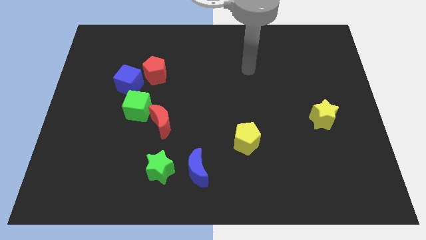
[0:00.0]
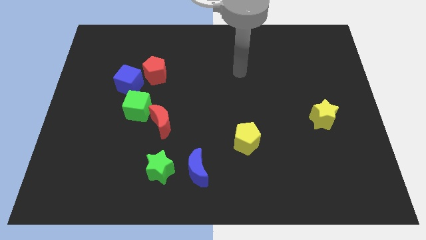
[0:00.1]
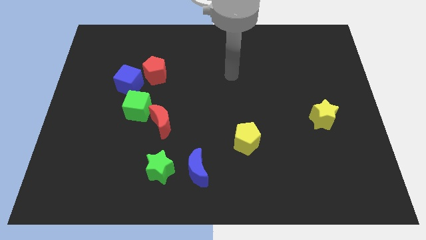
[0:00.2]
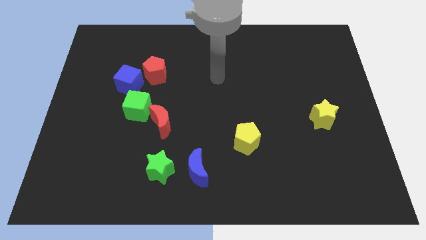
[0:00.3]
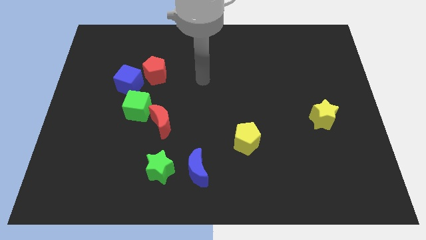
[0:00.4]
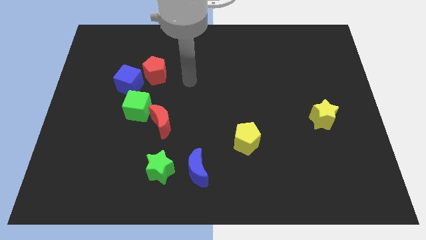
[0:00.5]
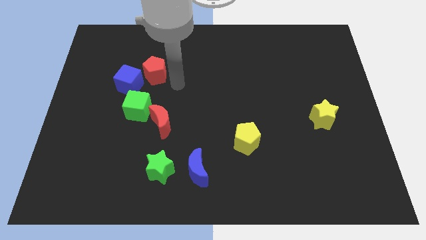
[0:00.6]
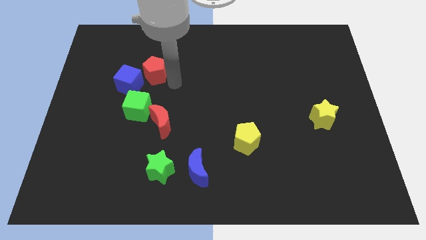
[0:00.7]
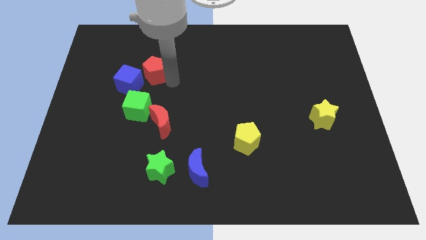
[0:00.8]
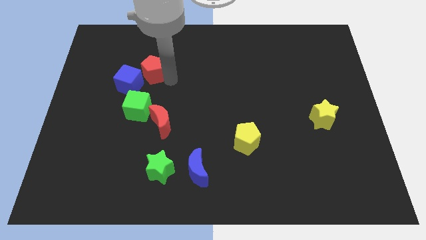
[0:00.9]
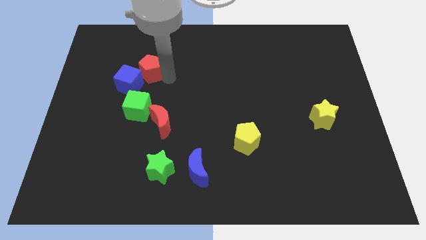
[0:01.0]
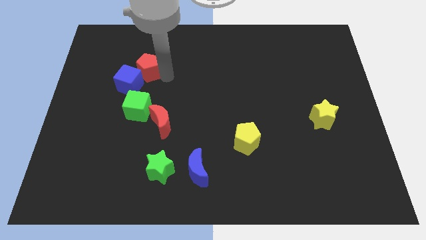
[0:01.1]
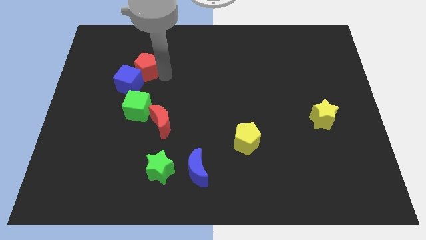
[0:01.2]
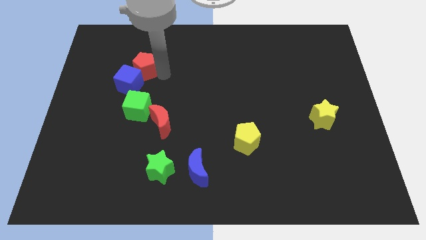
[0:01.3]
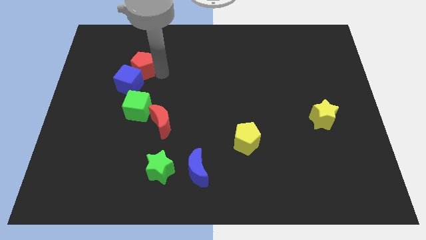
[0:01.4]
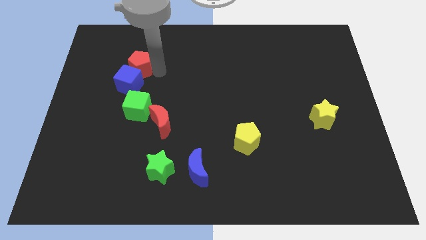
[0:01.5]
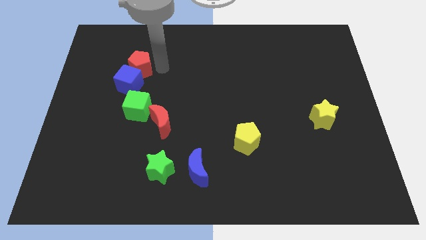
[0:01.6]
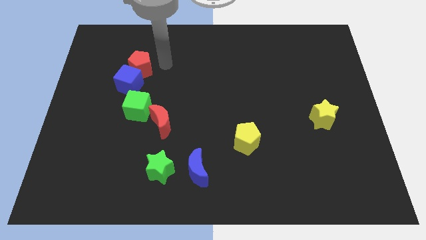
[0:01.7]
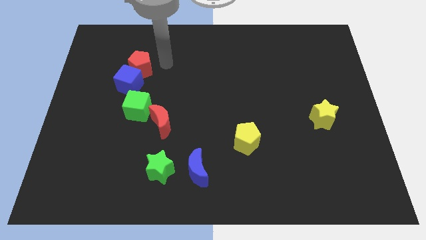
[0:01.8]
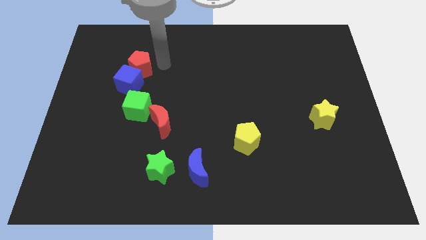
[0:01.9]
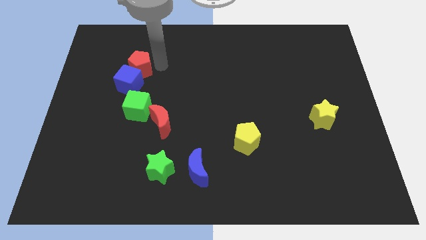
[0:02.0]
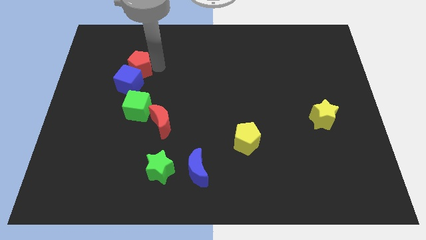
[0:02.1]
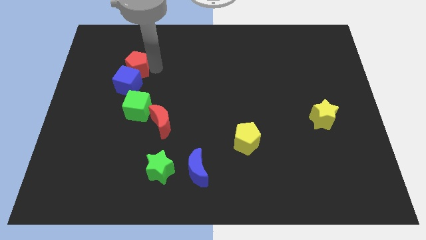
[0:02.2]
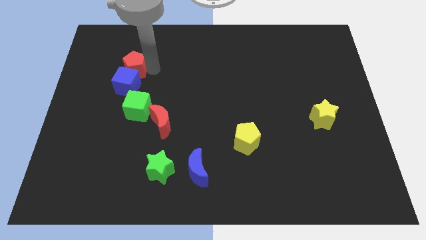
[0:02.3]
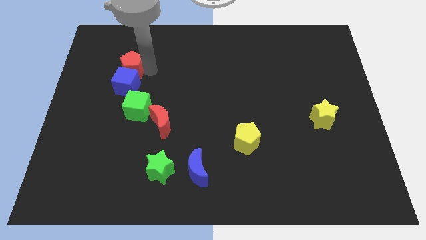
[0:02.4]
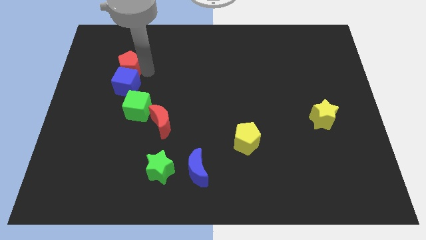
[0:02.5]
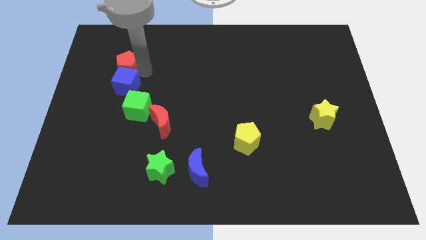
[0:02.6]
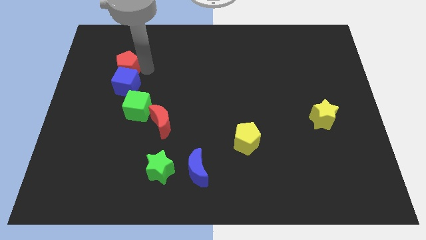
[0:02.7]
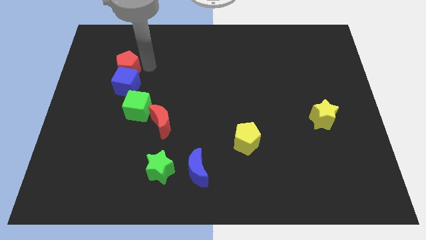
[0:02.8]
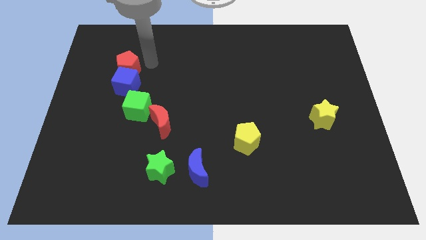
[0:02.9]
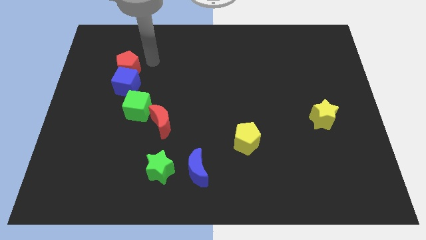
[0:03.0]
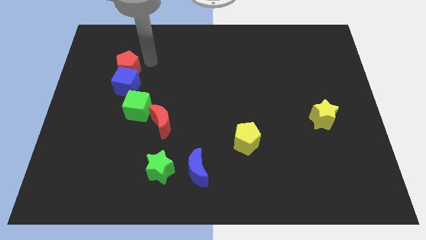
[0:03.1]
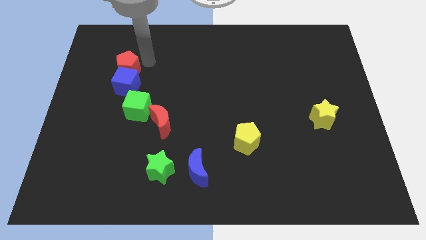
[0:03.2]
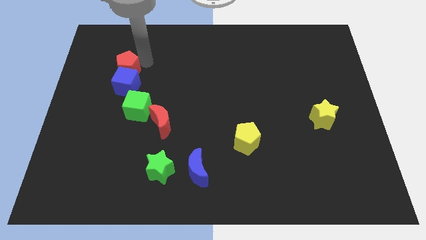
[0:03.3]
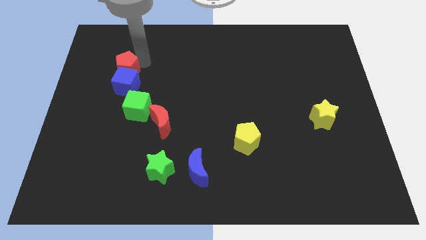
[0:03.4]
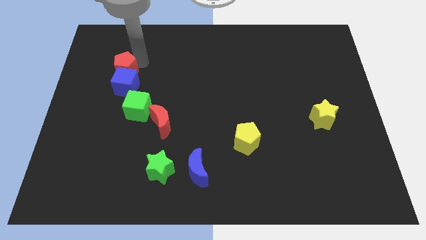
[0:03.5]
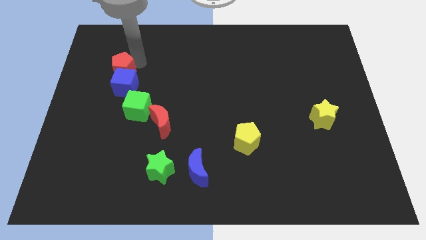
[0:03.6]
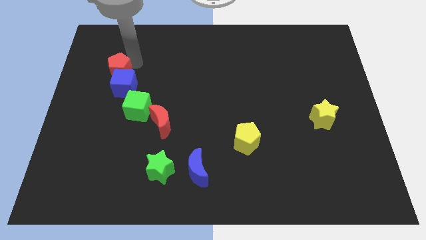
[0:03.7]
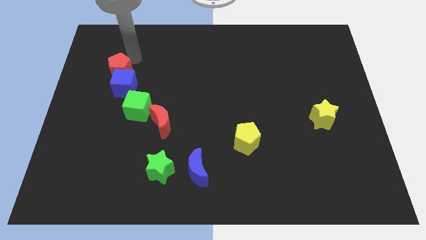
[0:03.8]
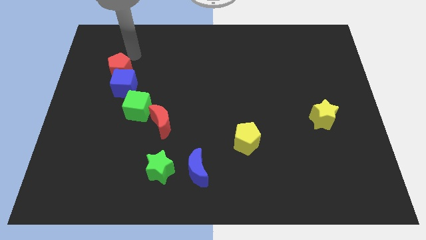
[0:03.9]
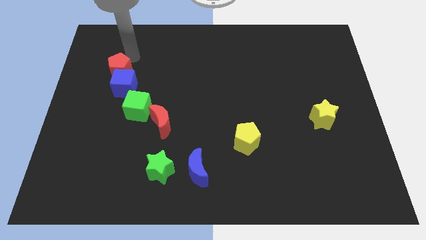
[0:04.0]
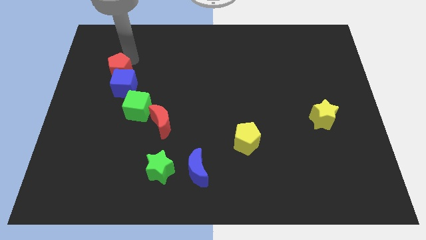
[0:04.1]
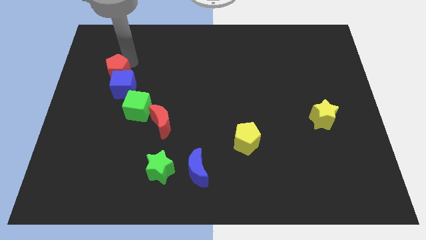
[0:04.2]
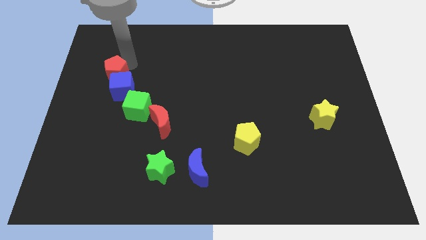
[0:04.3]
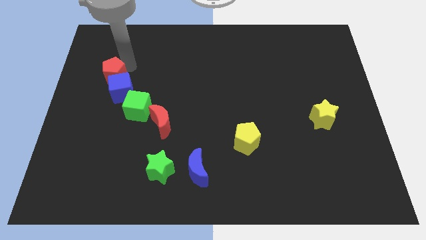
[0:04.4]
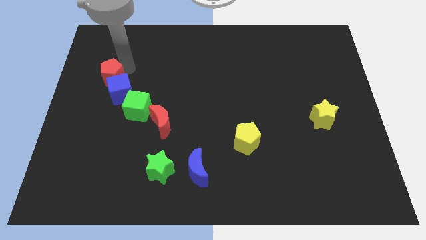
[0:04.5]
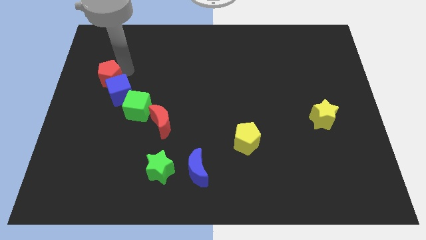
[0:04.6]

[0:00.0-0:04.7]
slide the red pentagon a bit downwards and left

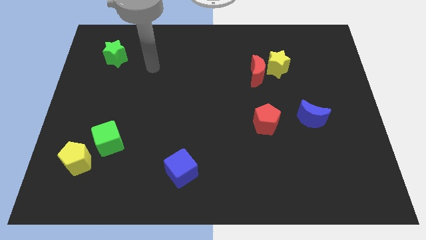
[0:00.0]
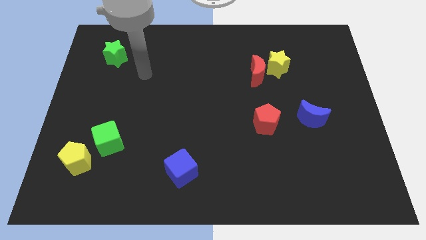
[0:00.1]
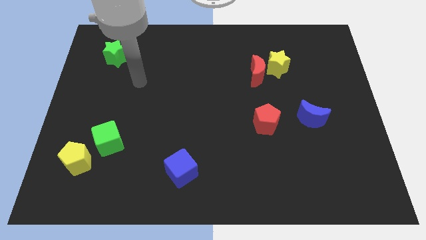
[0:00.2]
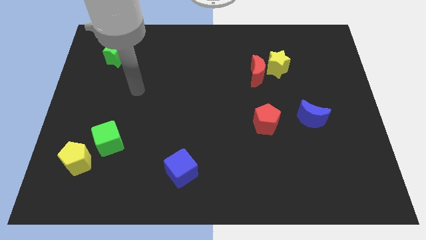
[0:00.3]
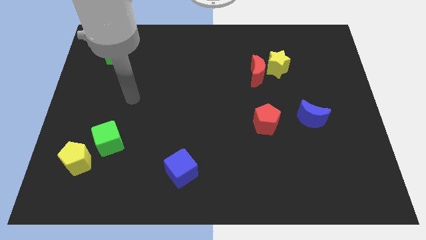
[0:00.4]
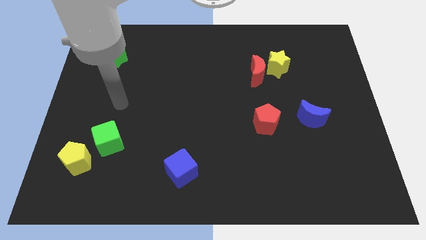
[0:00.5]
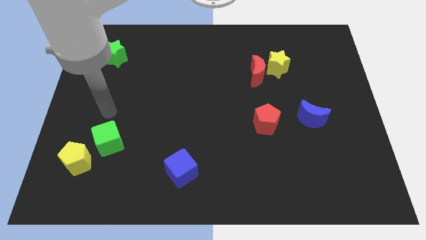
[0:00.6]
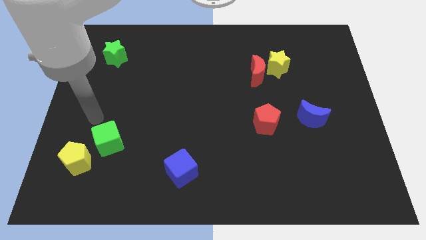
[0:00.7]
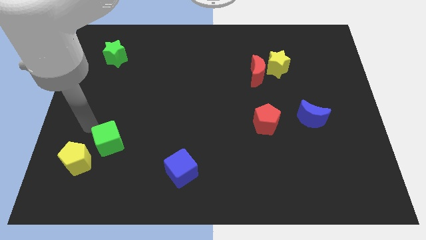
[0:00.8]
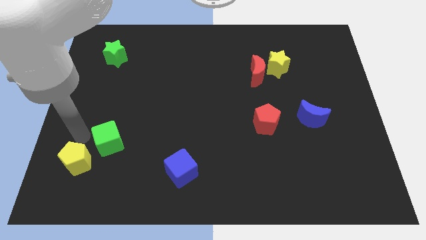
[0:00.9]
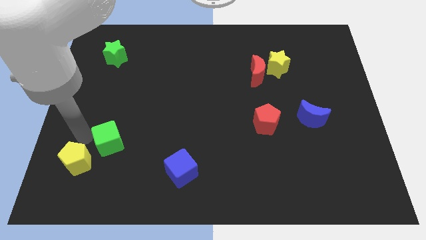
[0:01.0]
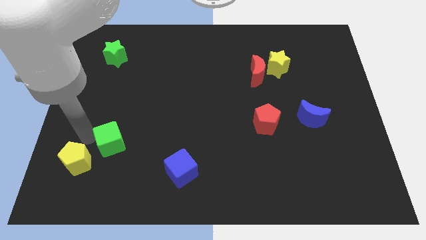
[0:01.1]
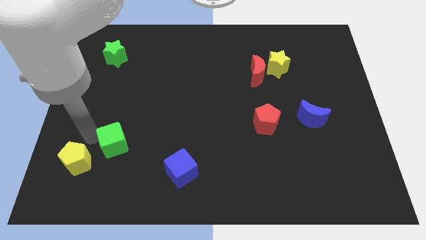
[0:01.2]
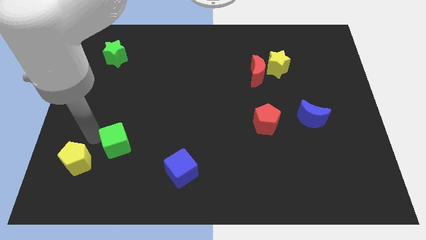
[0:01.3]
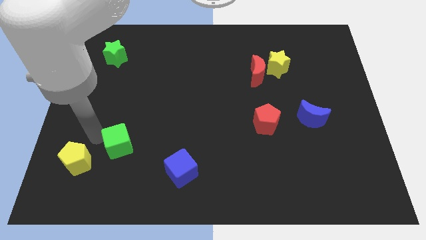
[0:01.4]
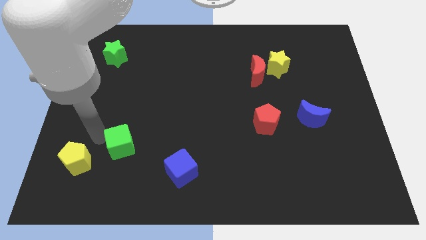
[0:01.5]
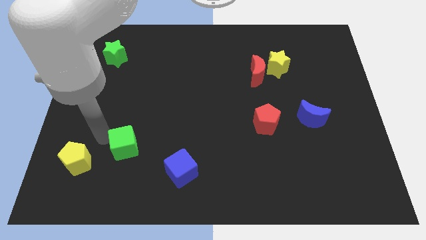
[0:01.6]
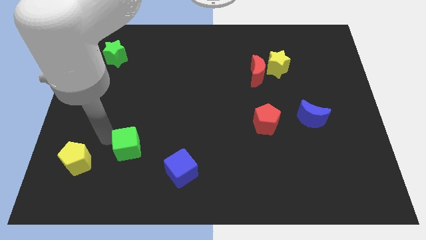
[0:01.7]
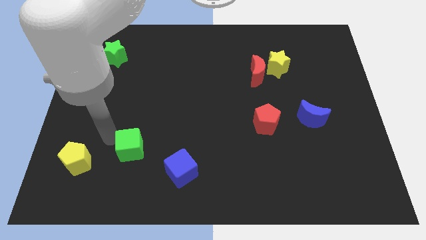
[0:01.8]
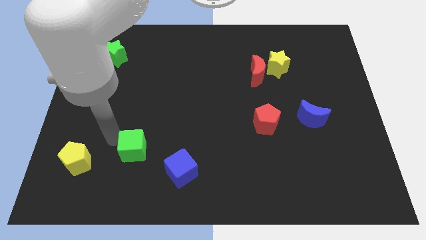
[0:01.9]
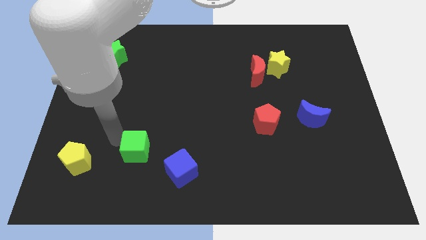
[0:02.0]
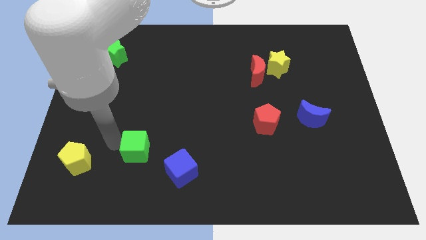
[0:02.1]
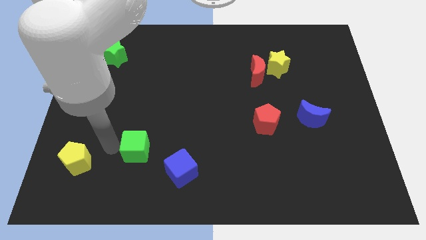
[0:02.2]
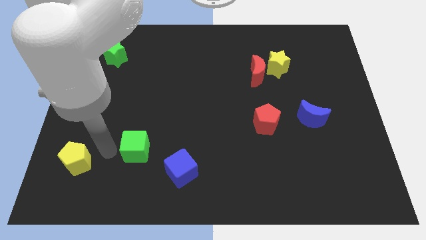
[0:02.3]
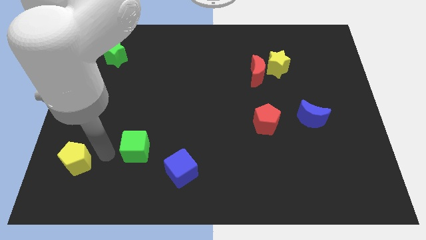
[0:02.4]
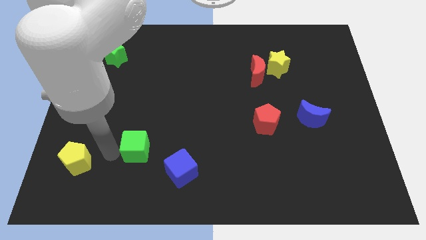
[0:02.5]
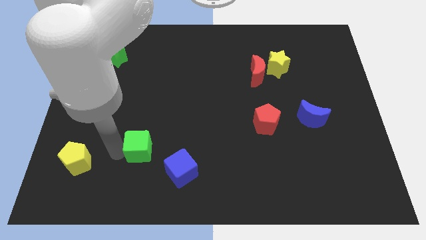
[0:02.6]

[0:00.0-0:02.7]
move the green cube a little to the right

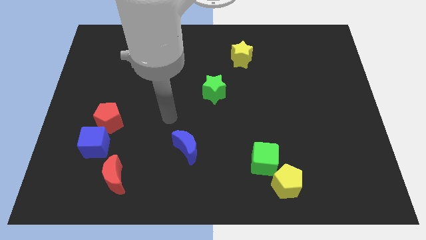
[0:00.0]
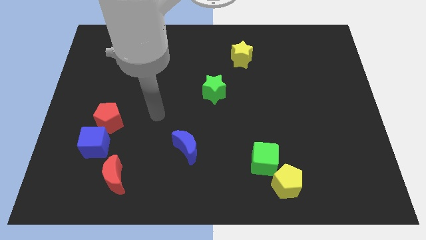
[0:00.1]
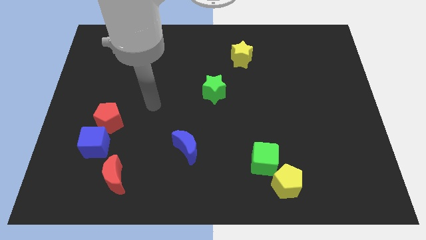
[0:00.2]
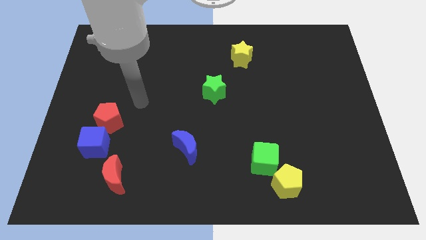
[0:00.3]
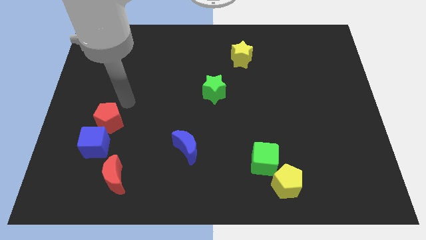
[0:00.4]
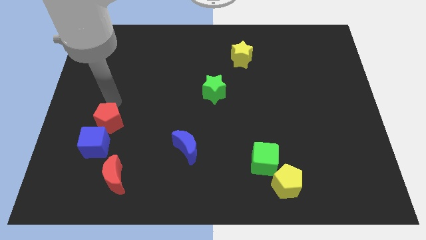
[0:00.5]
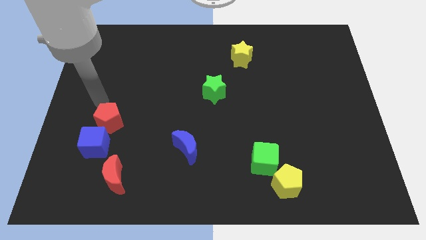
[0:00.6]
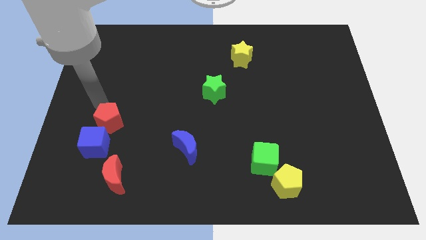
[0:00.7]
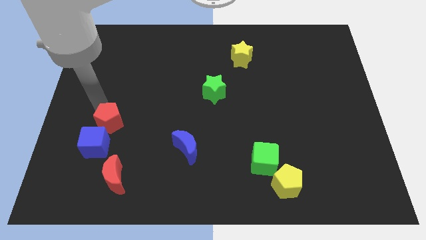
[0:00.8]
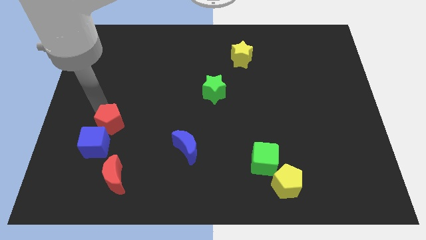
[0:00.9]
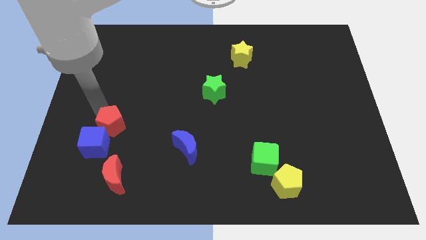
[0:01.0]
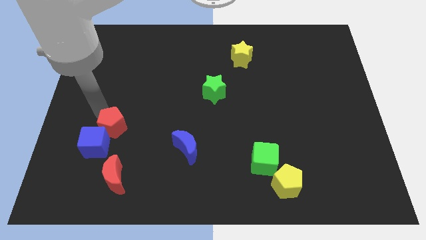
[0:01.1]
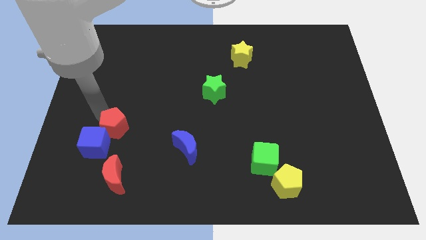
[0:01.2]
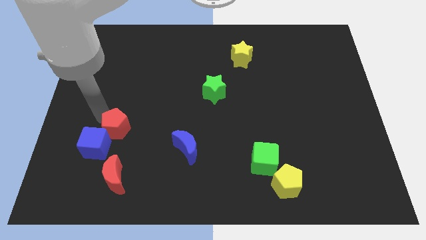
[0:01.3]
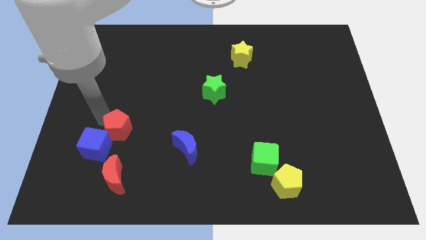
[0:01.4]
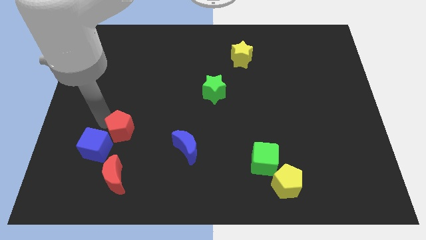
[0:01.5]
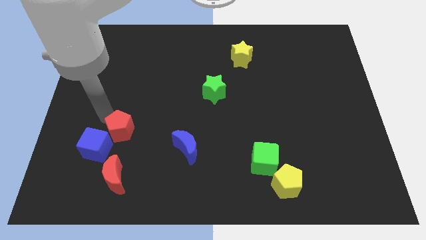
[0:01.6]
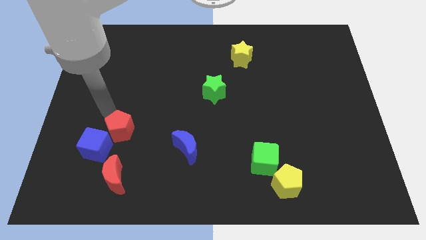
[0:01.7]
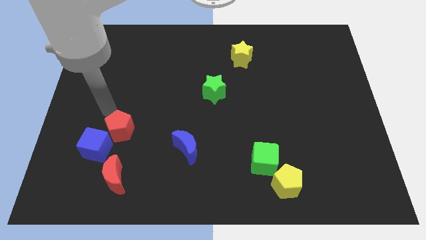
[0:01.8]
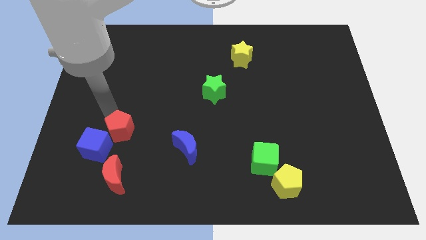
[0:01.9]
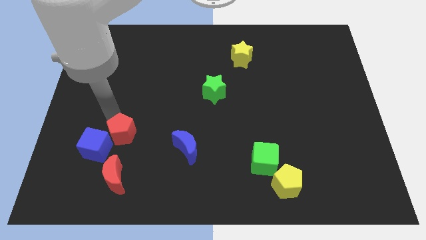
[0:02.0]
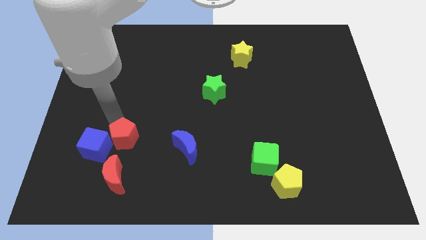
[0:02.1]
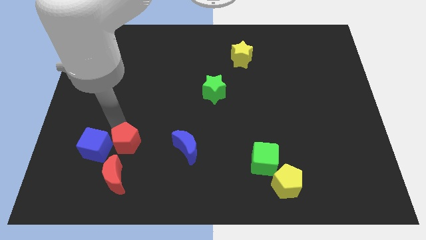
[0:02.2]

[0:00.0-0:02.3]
slightly slide the red pentagon down and to the right
